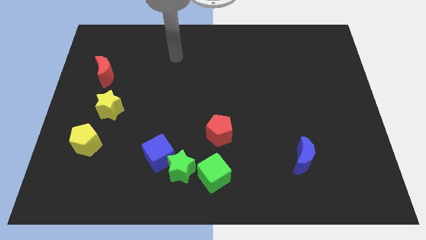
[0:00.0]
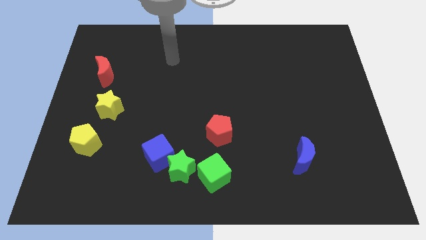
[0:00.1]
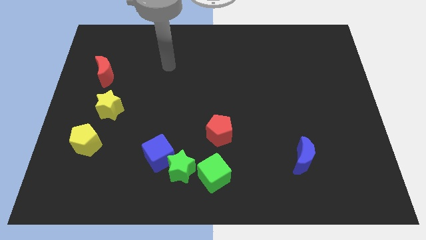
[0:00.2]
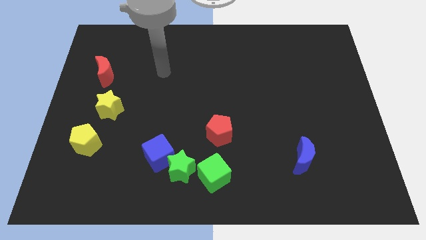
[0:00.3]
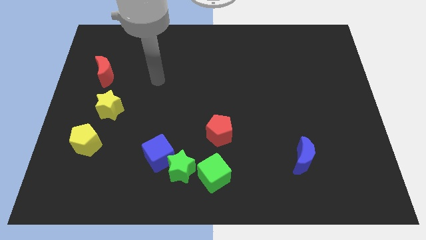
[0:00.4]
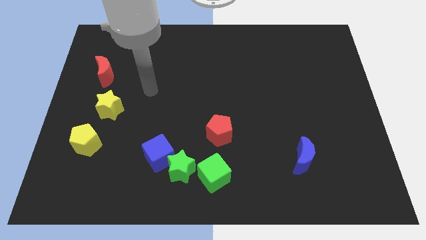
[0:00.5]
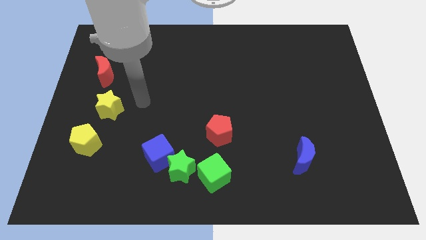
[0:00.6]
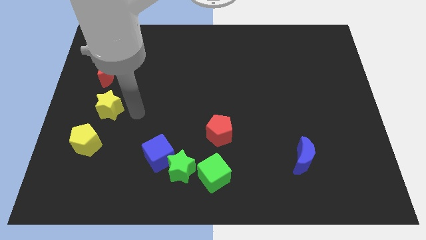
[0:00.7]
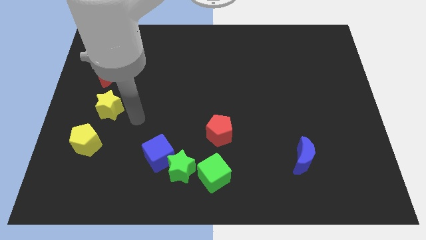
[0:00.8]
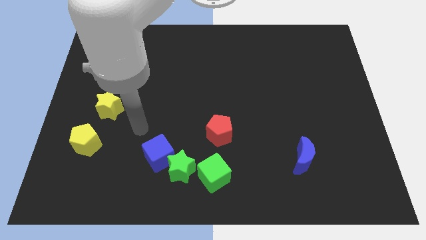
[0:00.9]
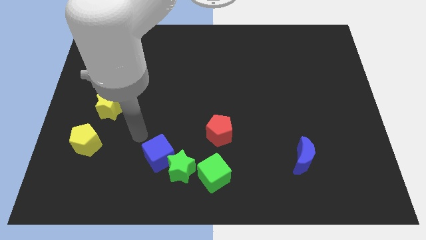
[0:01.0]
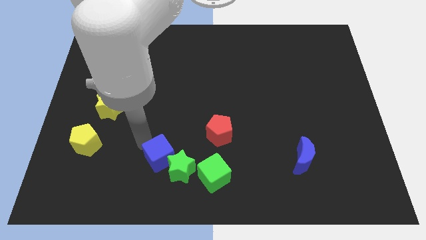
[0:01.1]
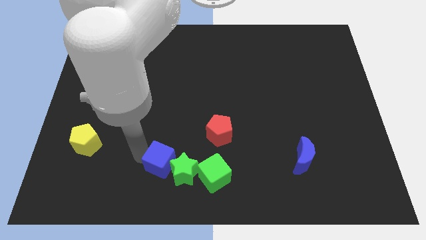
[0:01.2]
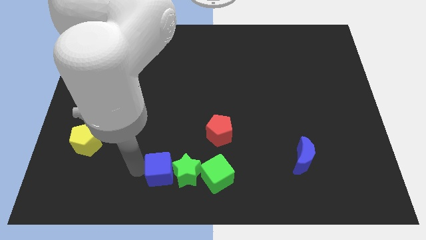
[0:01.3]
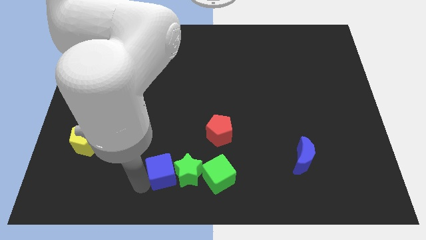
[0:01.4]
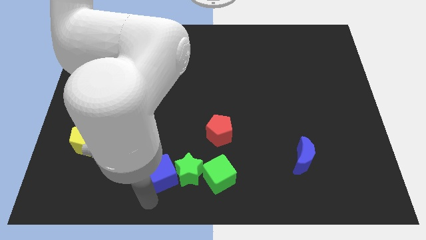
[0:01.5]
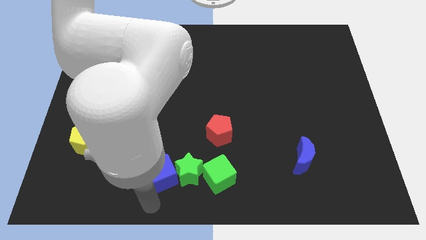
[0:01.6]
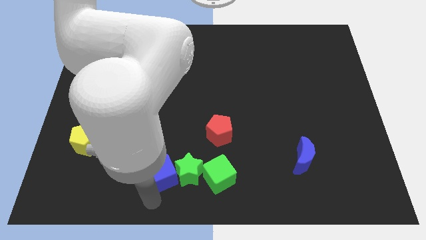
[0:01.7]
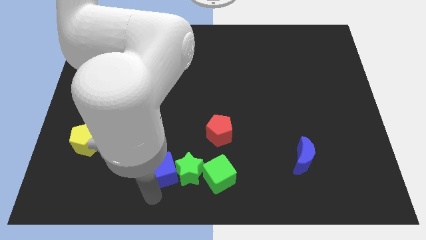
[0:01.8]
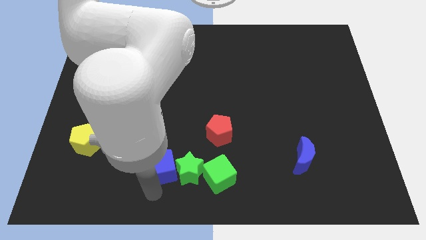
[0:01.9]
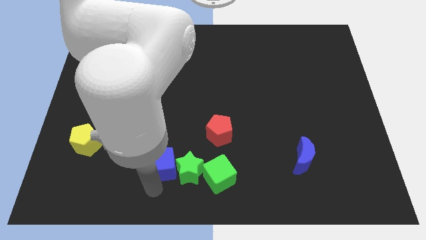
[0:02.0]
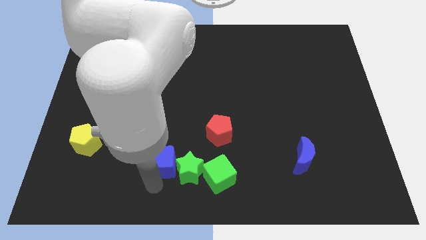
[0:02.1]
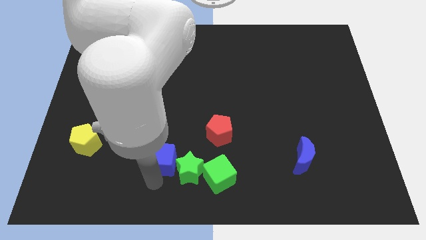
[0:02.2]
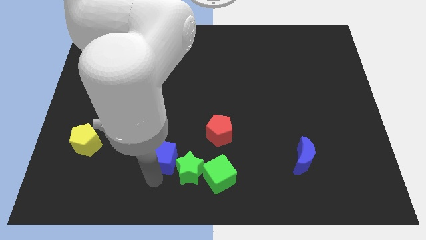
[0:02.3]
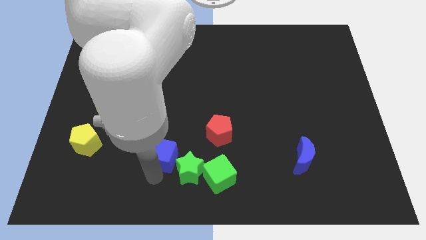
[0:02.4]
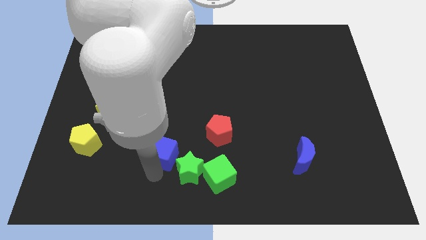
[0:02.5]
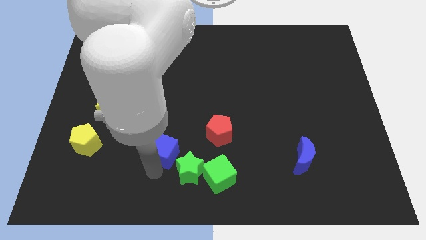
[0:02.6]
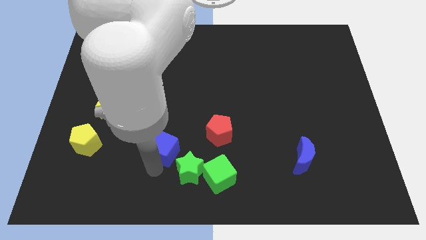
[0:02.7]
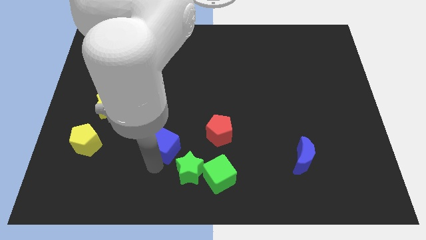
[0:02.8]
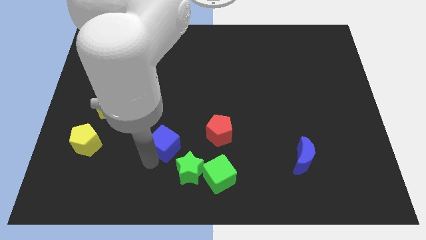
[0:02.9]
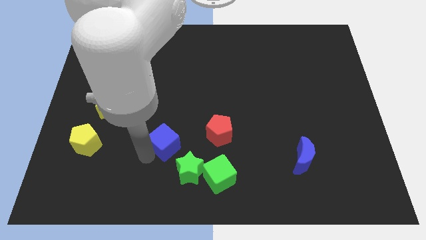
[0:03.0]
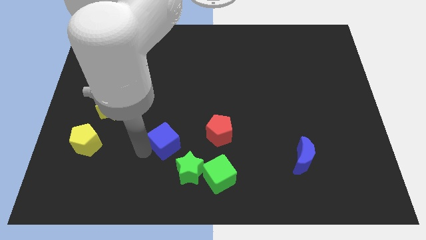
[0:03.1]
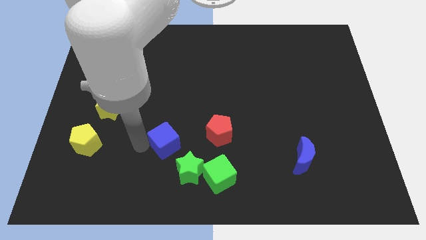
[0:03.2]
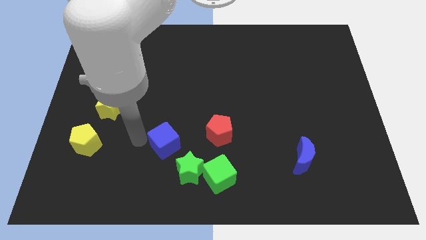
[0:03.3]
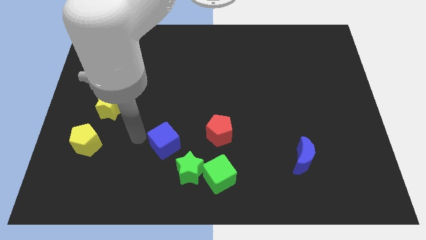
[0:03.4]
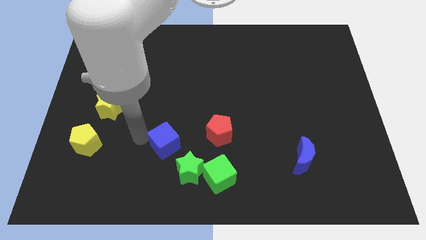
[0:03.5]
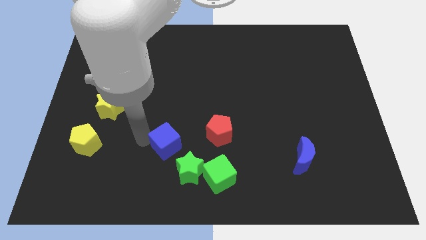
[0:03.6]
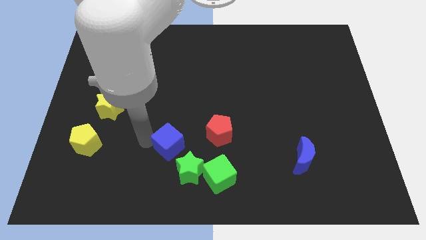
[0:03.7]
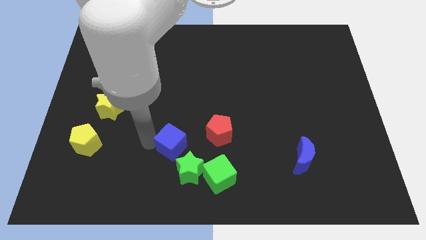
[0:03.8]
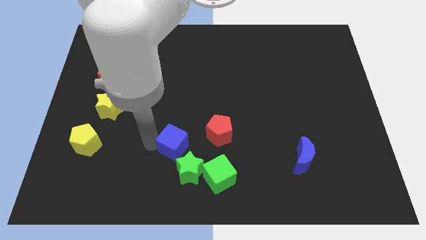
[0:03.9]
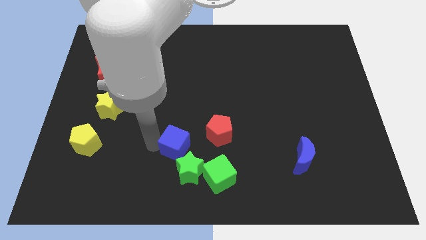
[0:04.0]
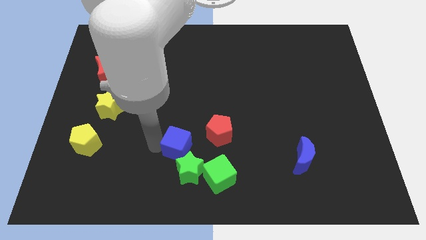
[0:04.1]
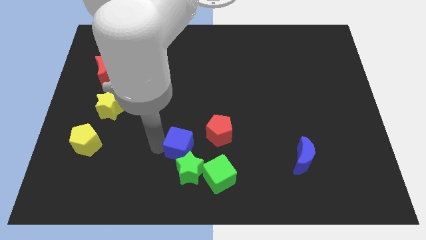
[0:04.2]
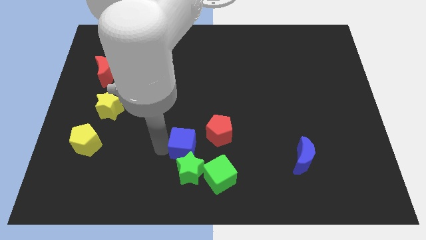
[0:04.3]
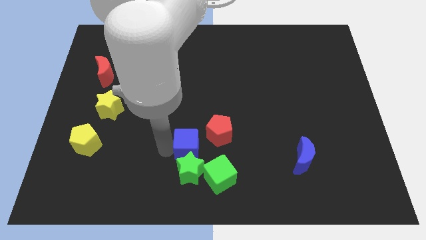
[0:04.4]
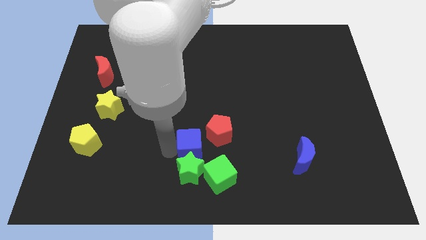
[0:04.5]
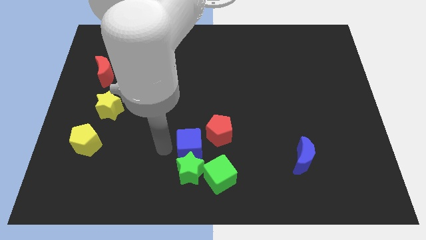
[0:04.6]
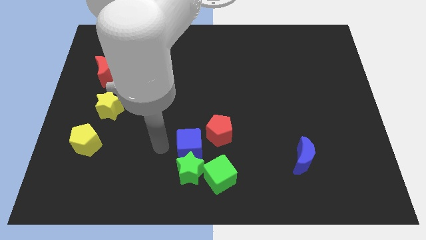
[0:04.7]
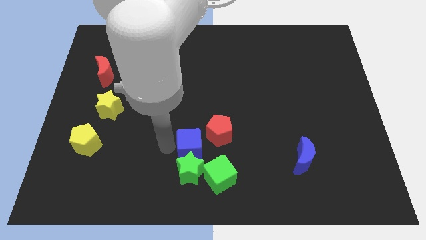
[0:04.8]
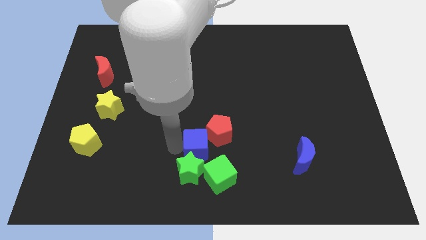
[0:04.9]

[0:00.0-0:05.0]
slide the blue cube right a little bit

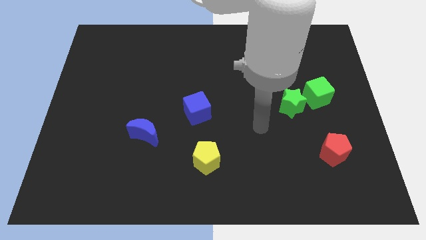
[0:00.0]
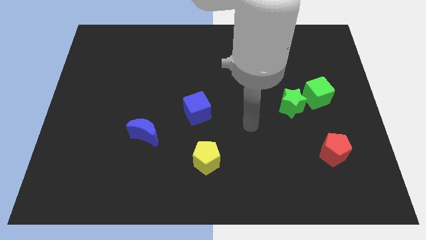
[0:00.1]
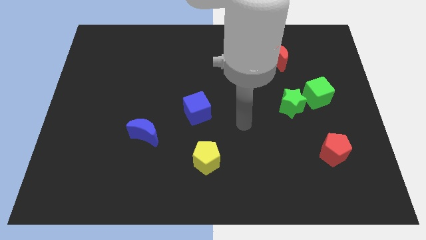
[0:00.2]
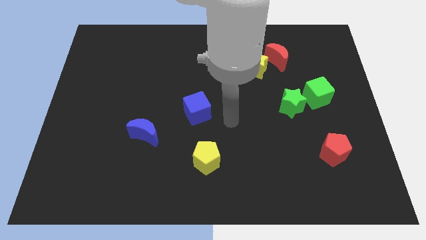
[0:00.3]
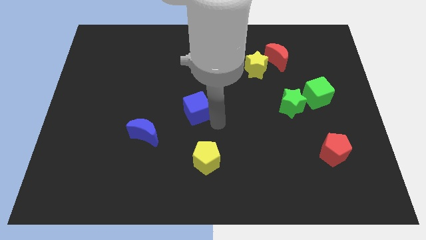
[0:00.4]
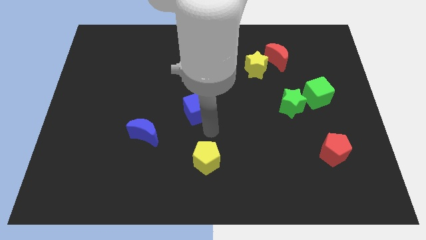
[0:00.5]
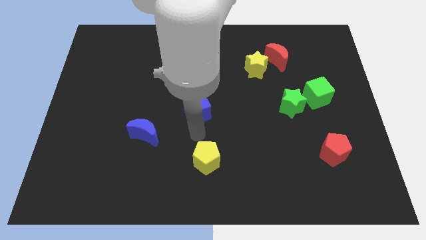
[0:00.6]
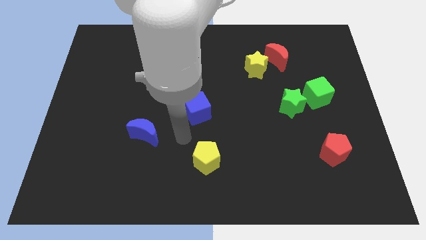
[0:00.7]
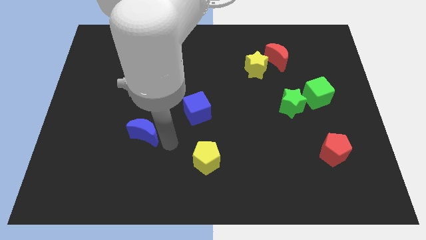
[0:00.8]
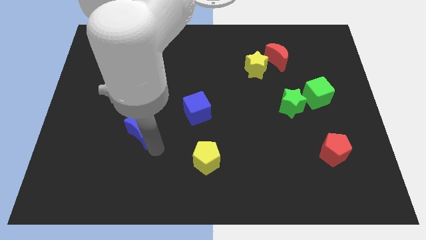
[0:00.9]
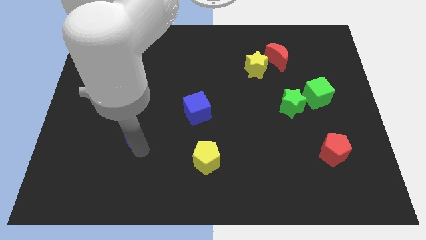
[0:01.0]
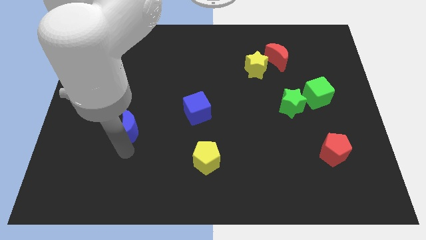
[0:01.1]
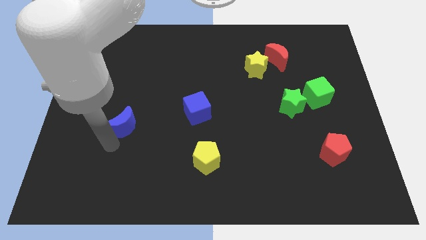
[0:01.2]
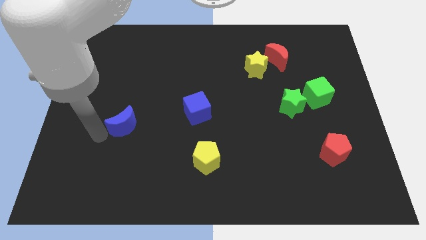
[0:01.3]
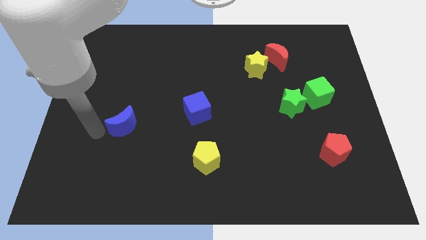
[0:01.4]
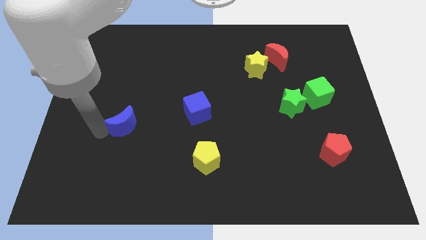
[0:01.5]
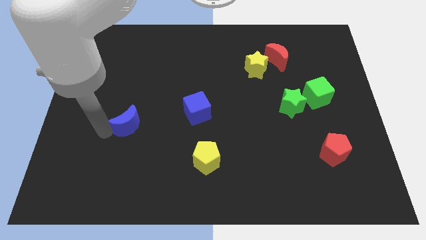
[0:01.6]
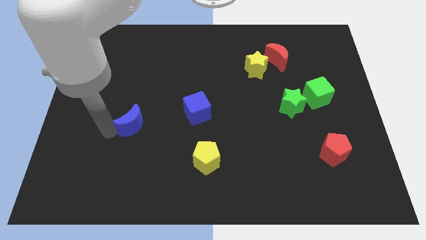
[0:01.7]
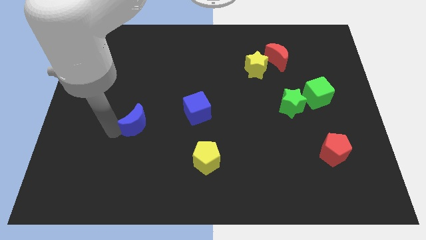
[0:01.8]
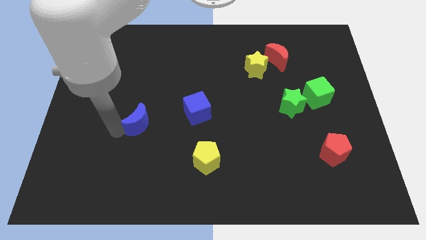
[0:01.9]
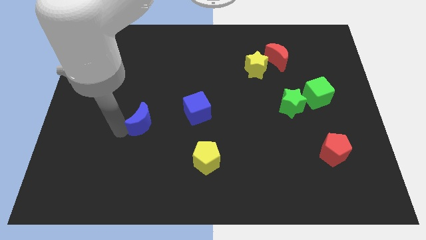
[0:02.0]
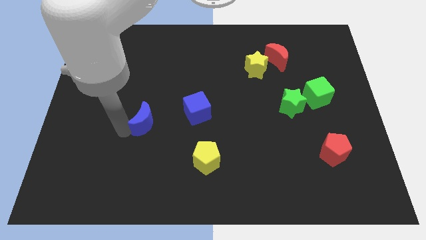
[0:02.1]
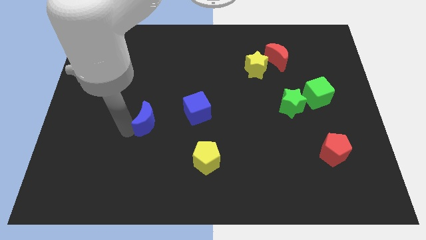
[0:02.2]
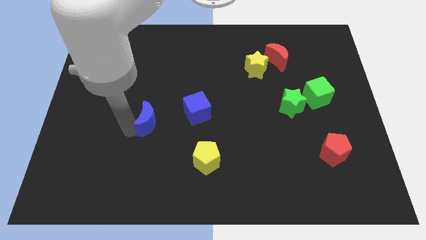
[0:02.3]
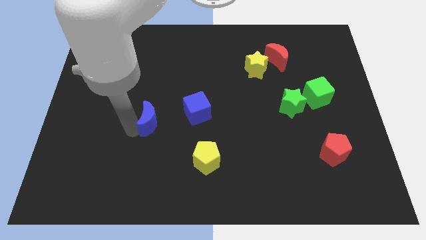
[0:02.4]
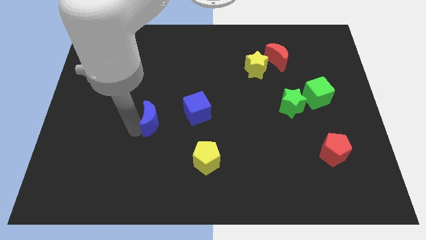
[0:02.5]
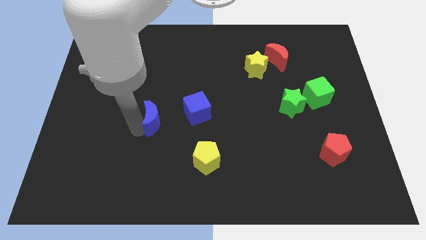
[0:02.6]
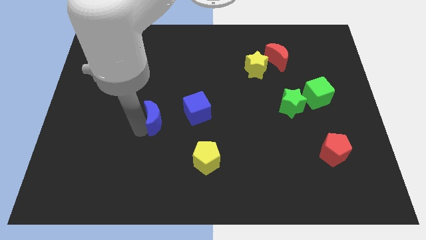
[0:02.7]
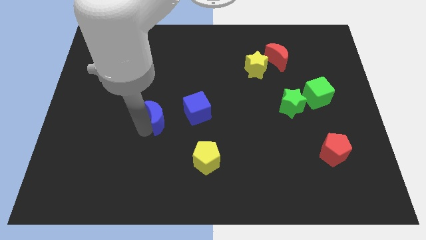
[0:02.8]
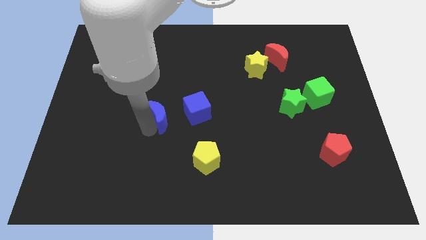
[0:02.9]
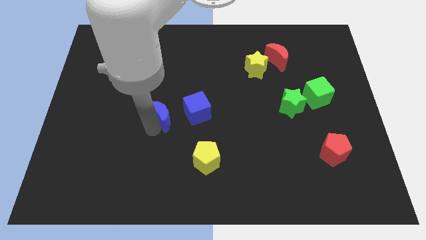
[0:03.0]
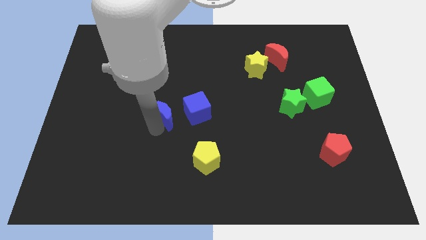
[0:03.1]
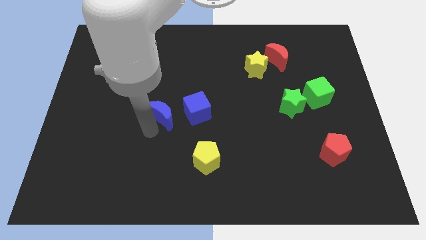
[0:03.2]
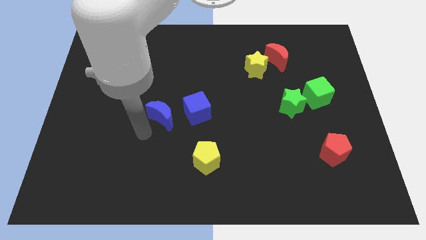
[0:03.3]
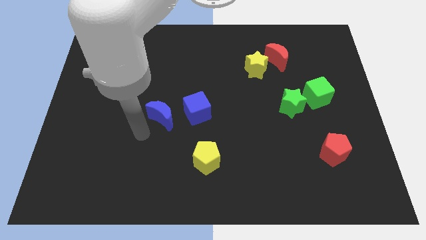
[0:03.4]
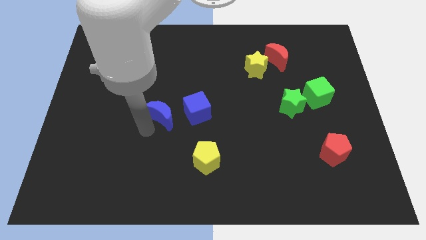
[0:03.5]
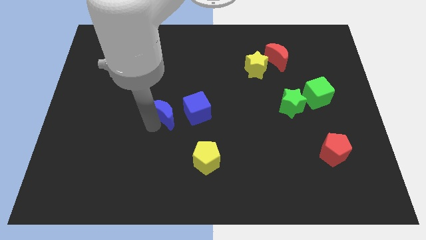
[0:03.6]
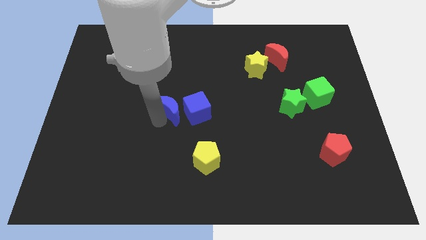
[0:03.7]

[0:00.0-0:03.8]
push the blue moon slightly upwards and to the right diagonally
